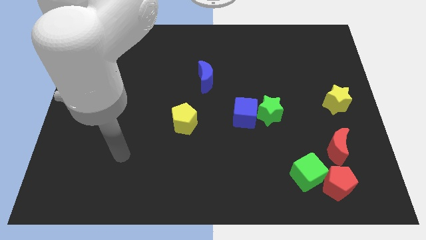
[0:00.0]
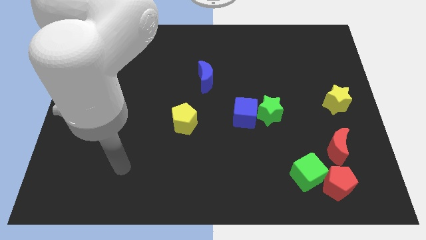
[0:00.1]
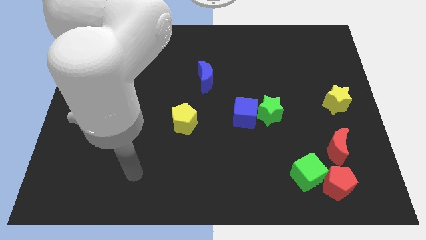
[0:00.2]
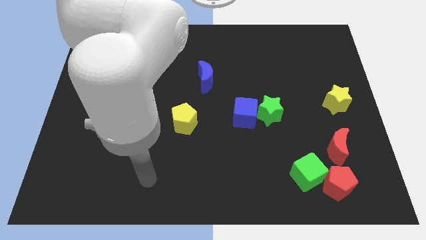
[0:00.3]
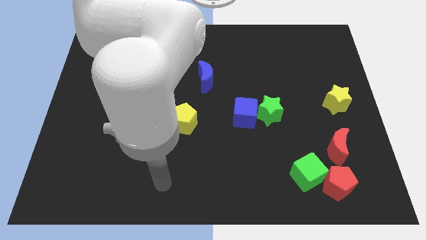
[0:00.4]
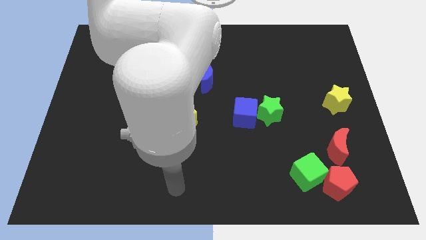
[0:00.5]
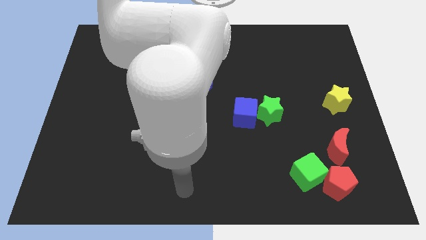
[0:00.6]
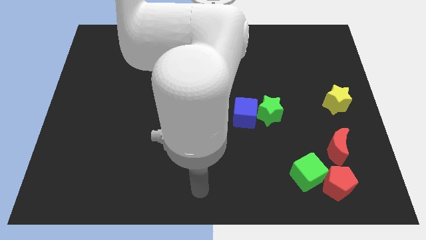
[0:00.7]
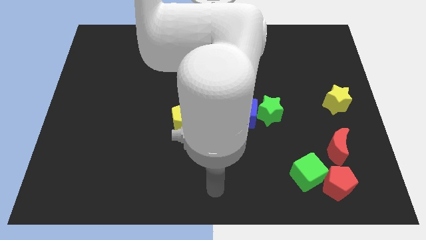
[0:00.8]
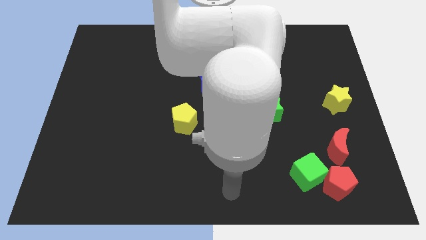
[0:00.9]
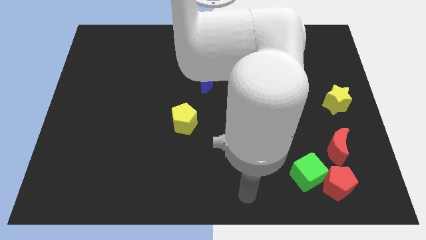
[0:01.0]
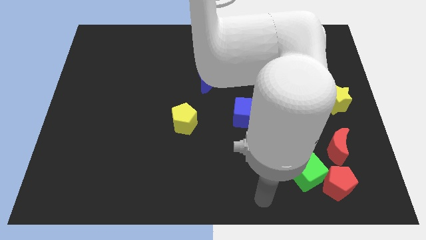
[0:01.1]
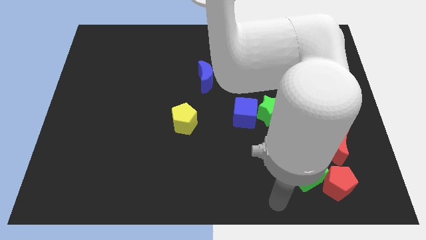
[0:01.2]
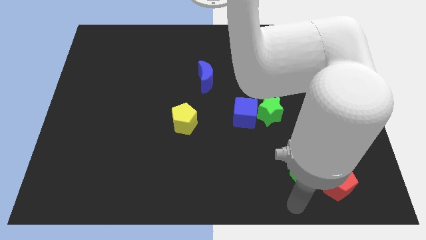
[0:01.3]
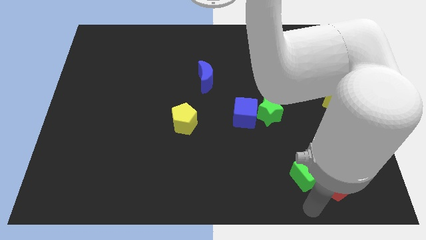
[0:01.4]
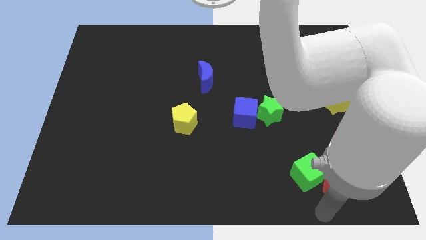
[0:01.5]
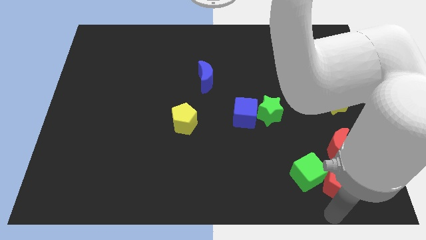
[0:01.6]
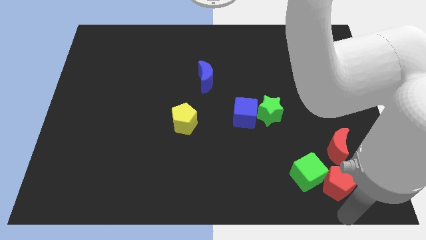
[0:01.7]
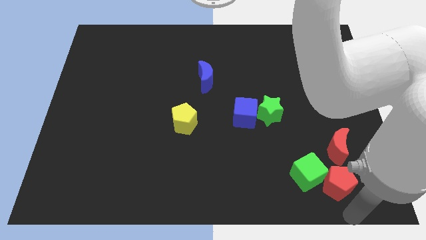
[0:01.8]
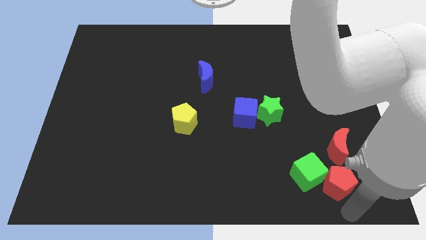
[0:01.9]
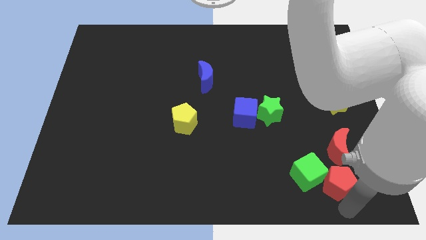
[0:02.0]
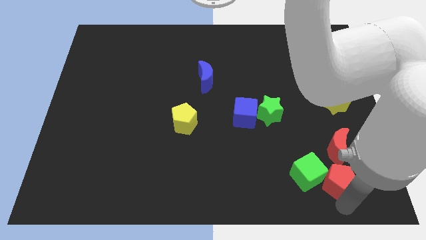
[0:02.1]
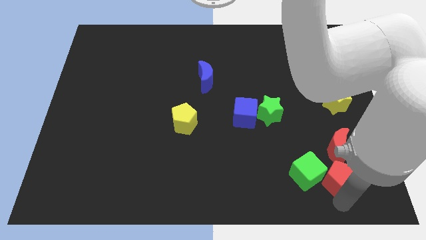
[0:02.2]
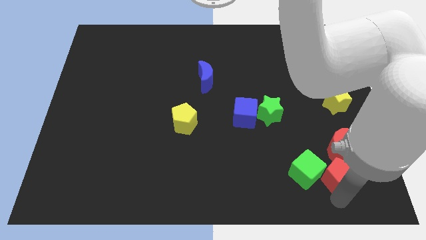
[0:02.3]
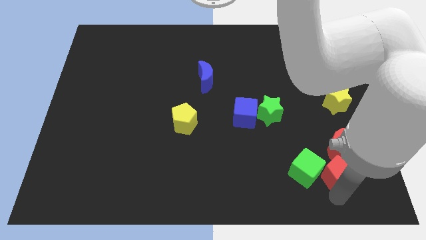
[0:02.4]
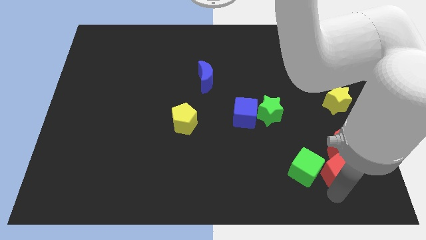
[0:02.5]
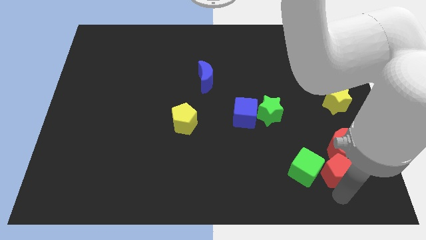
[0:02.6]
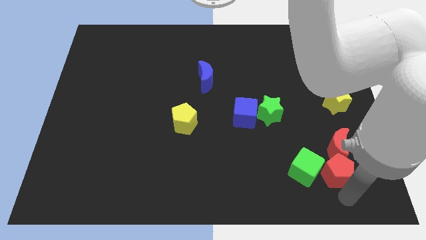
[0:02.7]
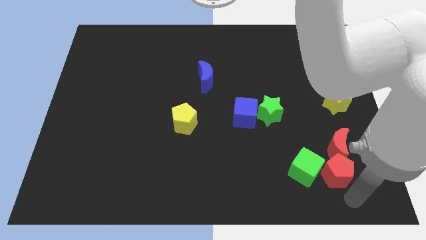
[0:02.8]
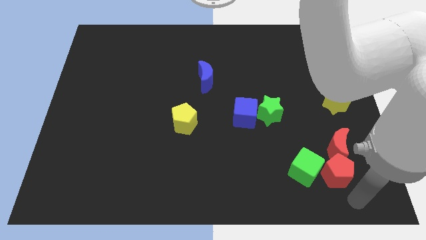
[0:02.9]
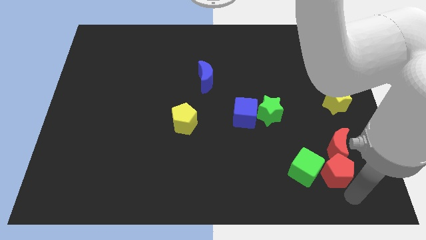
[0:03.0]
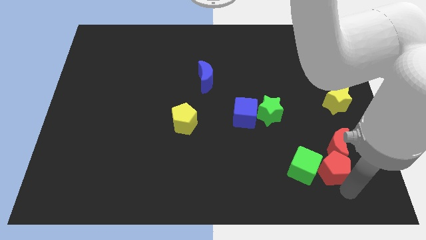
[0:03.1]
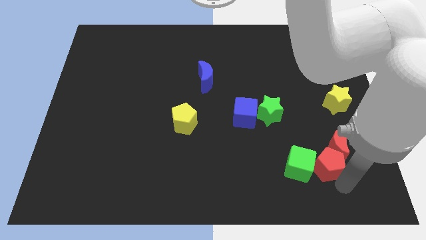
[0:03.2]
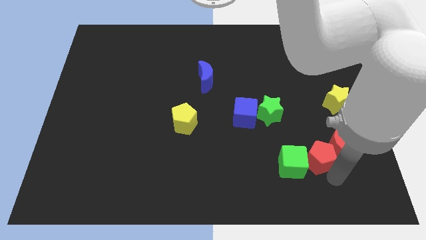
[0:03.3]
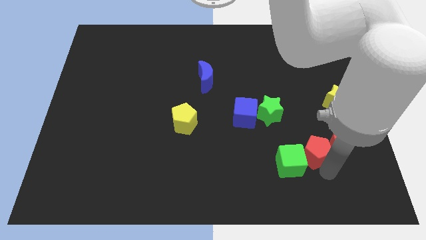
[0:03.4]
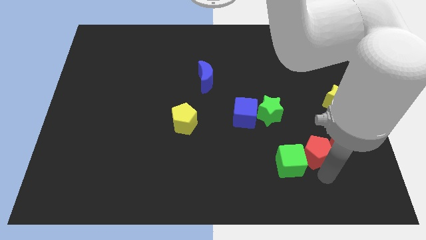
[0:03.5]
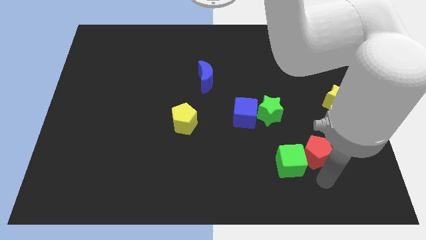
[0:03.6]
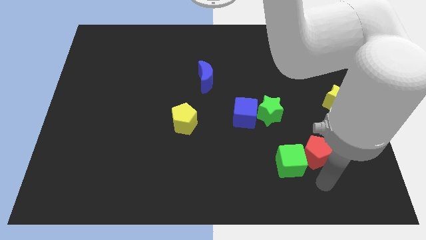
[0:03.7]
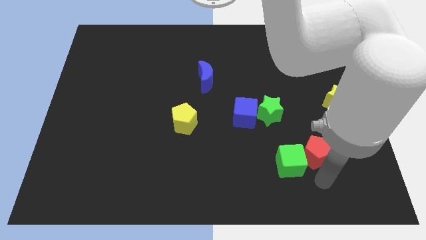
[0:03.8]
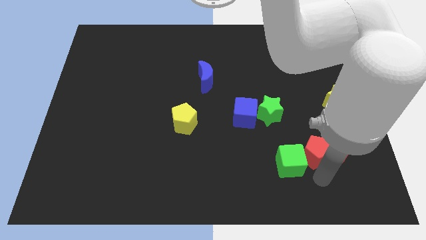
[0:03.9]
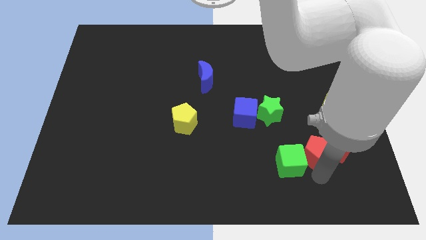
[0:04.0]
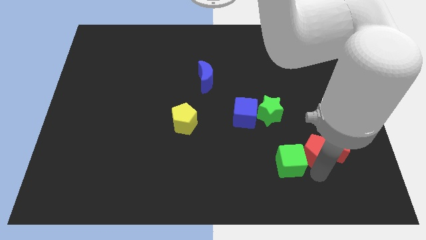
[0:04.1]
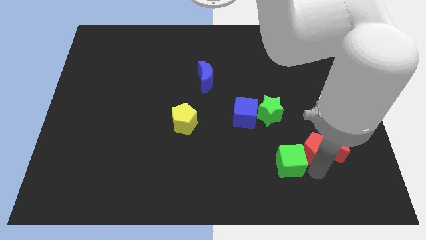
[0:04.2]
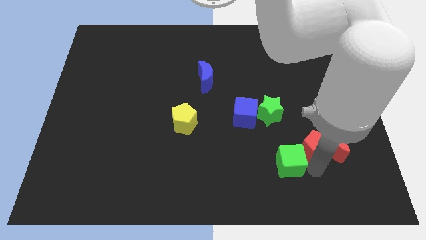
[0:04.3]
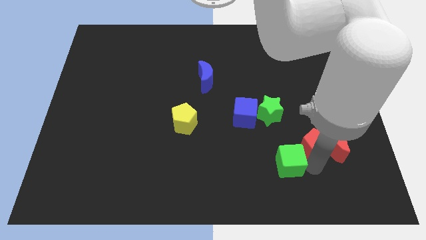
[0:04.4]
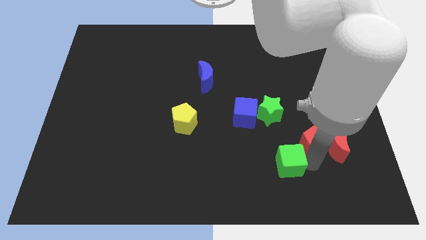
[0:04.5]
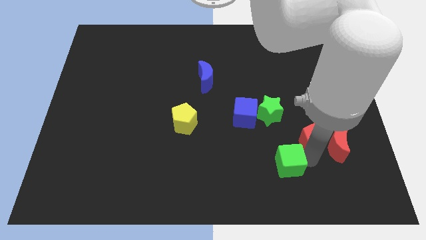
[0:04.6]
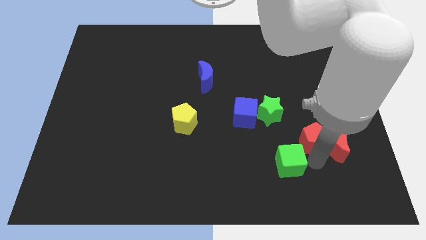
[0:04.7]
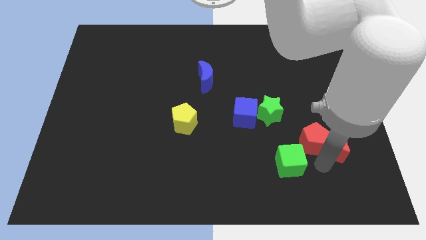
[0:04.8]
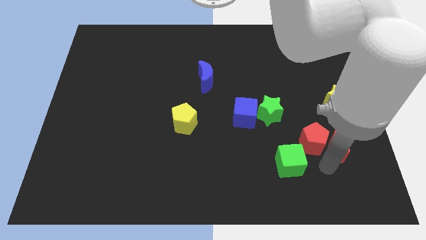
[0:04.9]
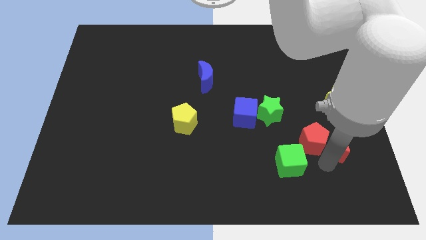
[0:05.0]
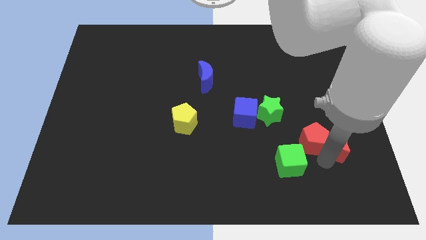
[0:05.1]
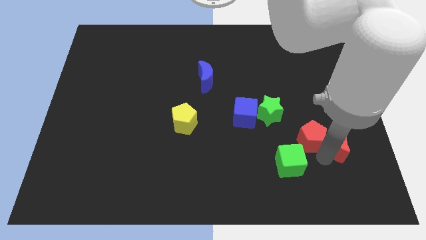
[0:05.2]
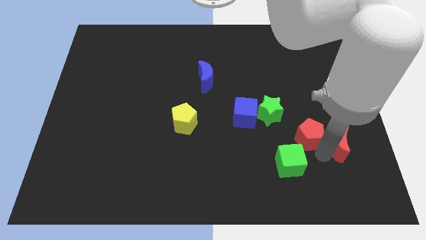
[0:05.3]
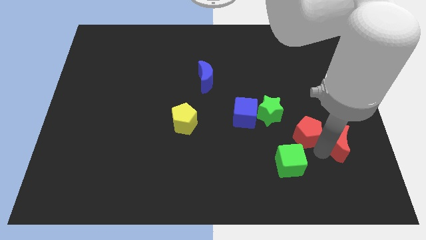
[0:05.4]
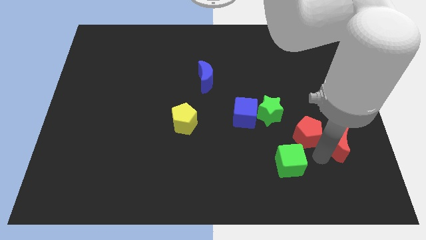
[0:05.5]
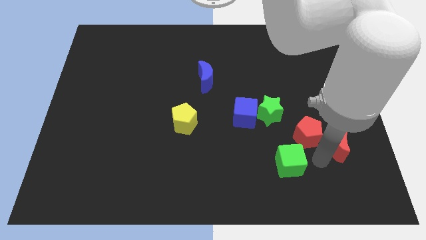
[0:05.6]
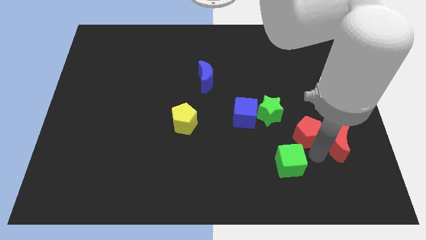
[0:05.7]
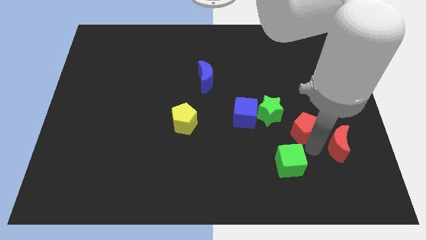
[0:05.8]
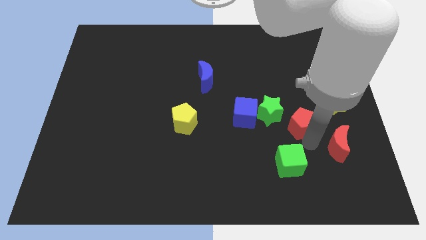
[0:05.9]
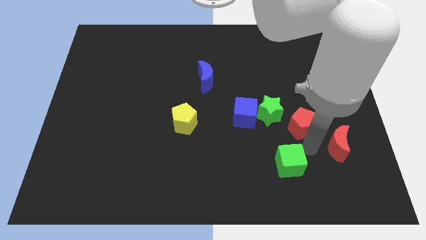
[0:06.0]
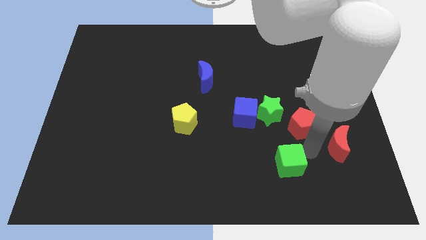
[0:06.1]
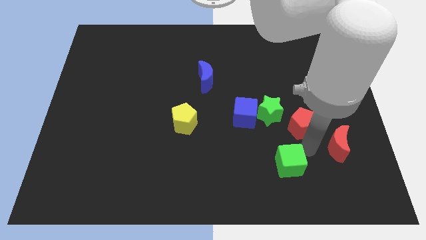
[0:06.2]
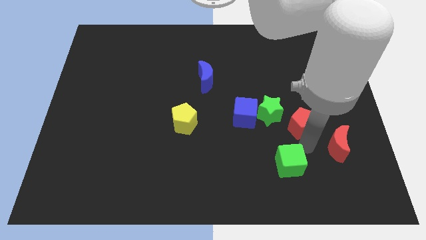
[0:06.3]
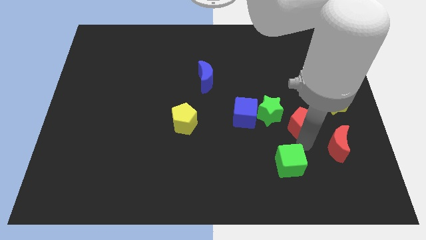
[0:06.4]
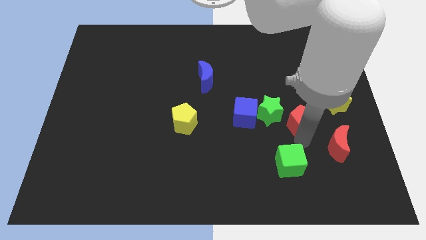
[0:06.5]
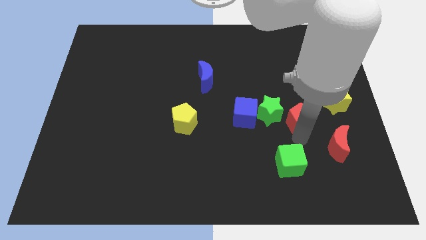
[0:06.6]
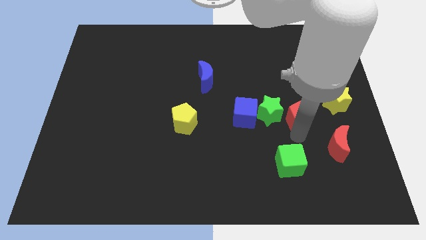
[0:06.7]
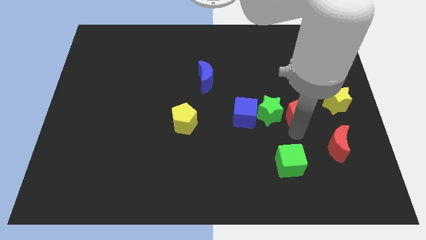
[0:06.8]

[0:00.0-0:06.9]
slide the red pentagon left of the yellow star
